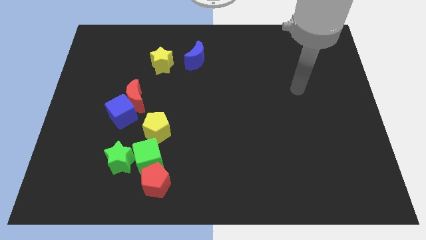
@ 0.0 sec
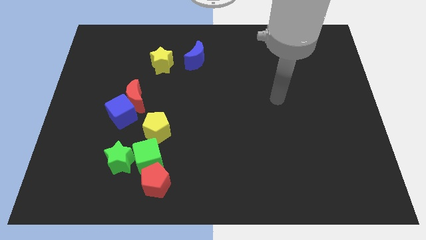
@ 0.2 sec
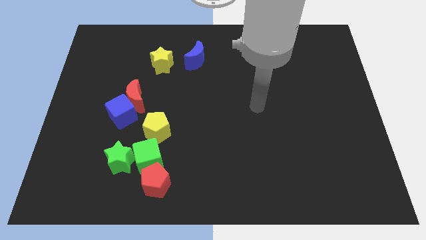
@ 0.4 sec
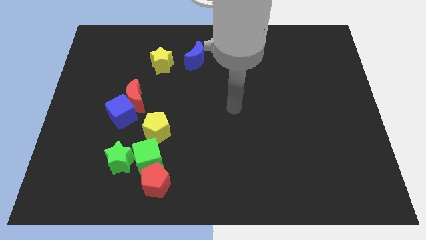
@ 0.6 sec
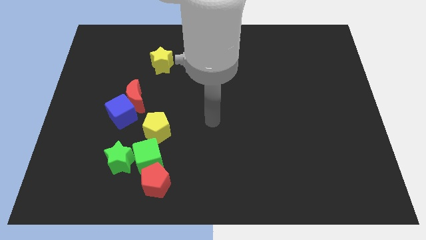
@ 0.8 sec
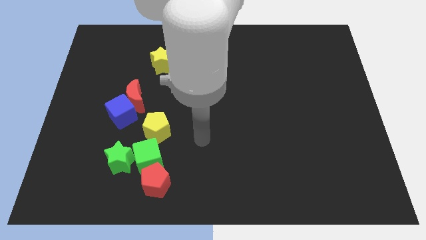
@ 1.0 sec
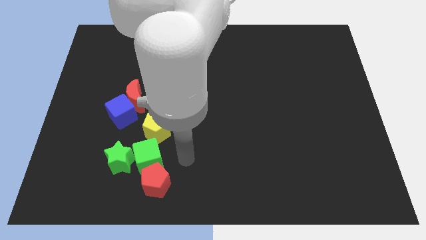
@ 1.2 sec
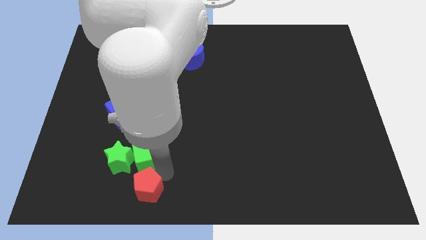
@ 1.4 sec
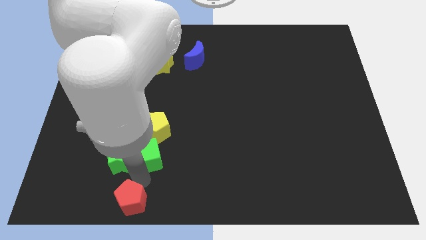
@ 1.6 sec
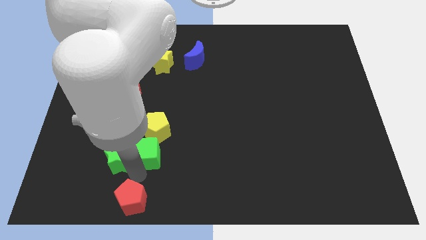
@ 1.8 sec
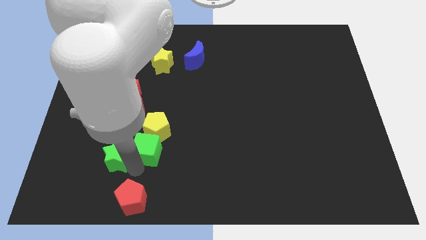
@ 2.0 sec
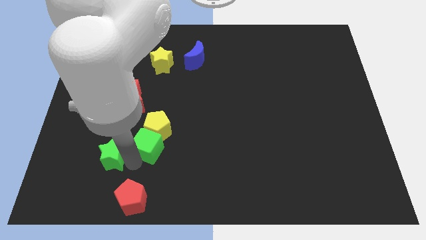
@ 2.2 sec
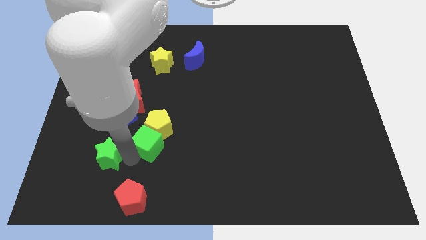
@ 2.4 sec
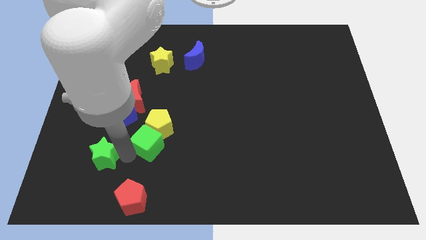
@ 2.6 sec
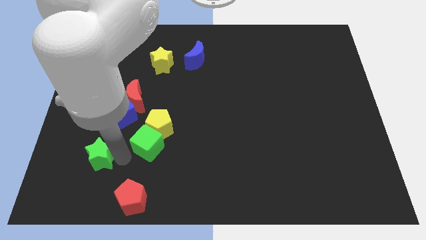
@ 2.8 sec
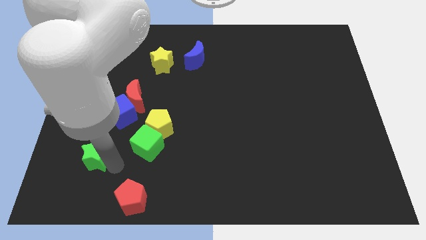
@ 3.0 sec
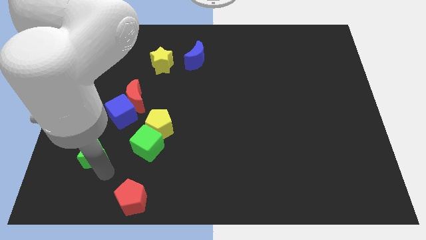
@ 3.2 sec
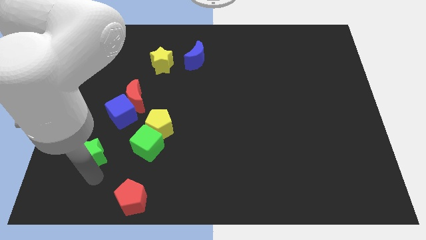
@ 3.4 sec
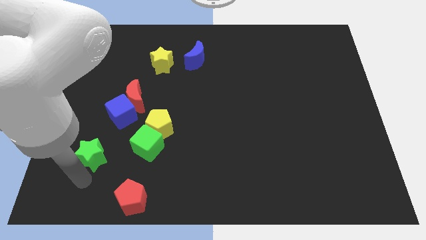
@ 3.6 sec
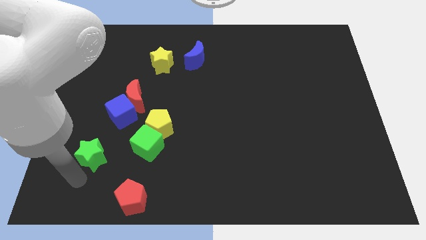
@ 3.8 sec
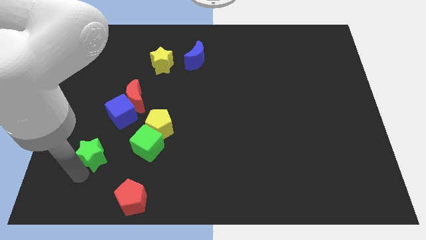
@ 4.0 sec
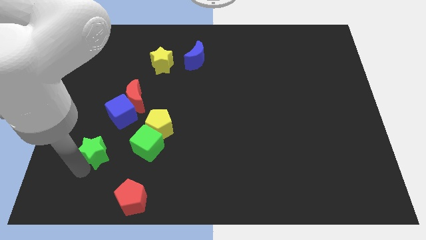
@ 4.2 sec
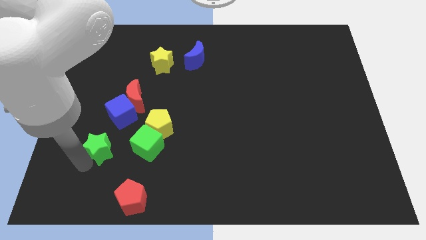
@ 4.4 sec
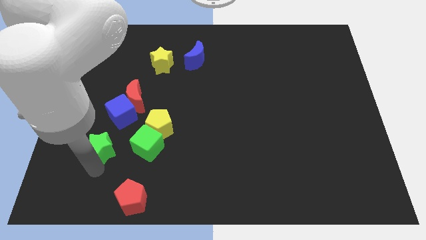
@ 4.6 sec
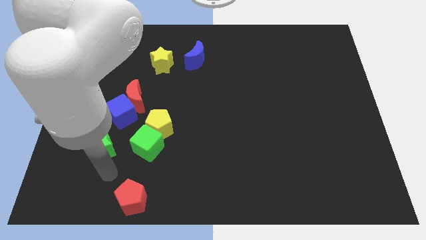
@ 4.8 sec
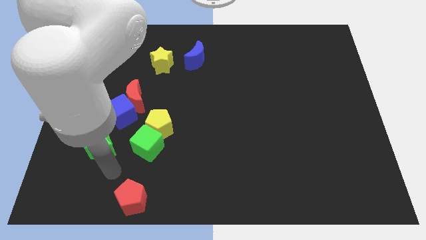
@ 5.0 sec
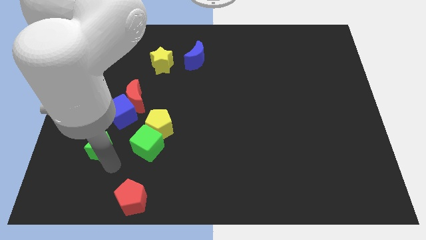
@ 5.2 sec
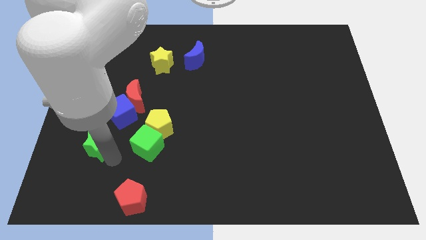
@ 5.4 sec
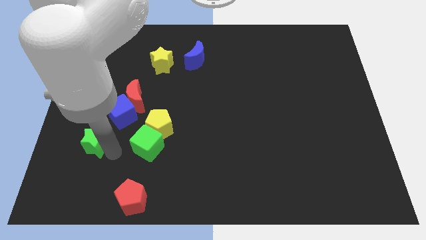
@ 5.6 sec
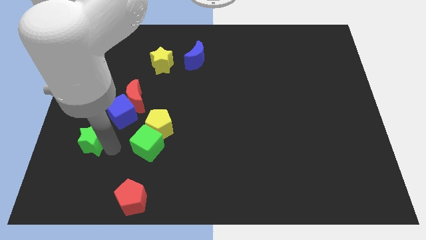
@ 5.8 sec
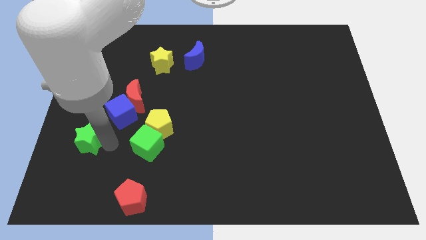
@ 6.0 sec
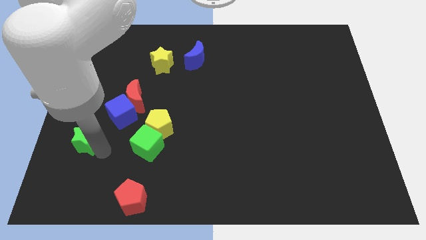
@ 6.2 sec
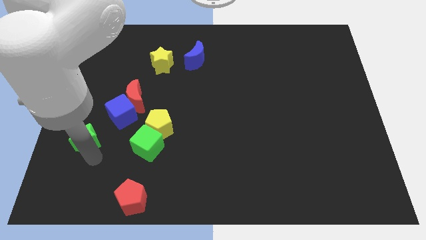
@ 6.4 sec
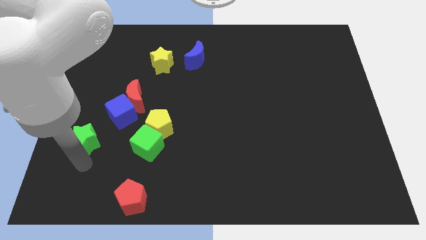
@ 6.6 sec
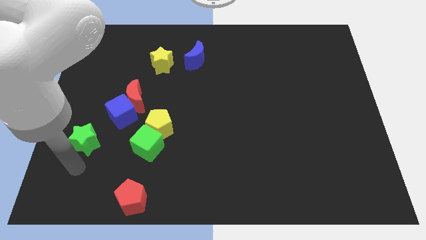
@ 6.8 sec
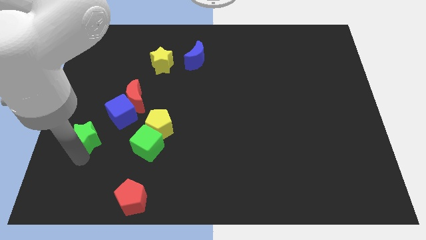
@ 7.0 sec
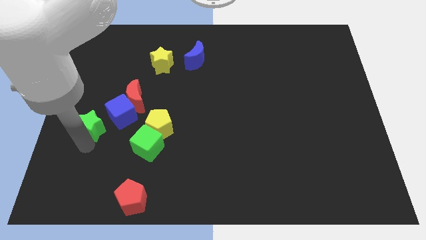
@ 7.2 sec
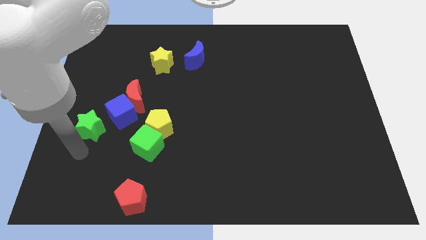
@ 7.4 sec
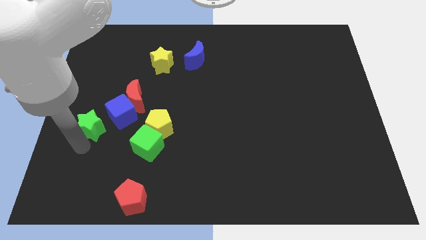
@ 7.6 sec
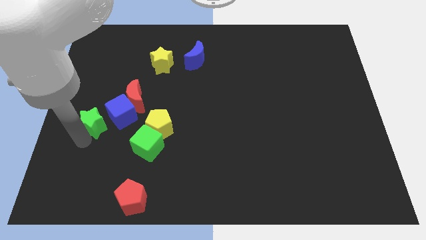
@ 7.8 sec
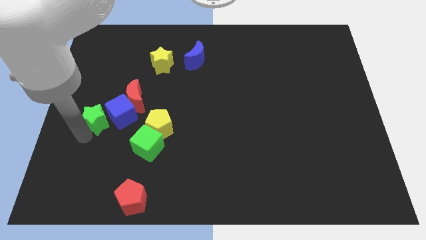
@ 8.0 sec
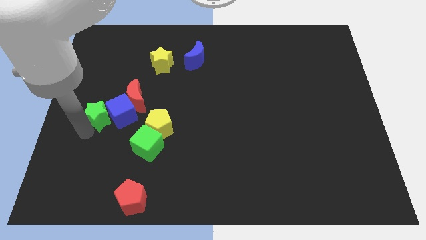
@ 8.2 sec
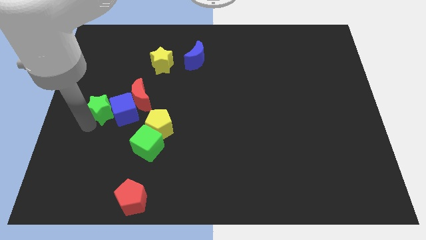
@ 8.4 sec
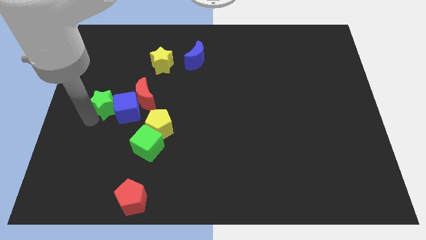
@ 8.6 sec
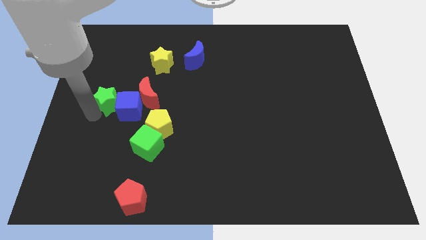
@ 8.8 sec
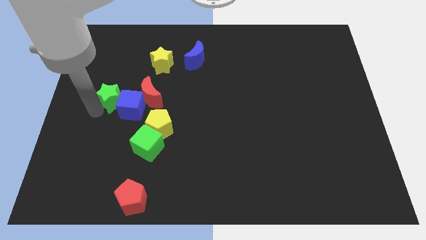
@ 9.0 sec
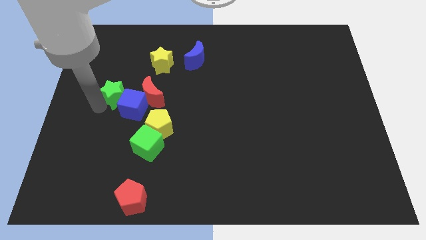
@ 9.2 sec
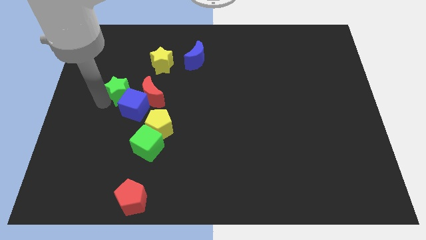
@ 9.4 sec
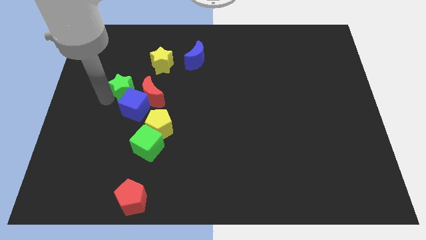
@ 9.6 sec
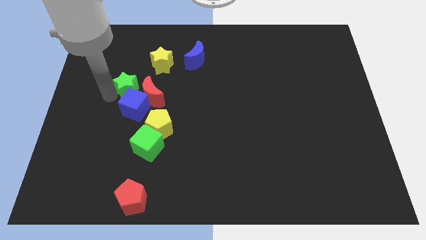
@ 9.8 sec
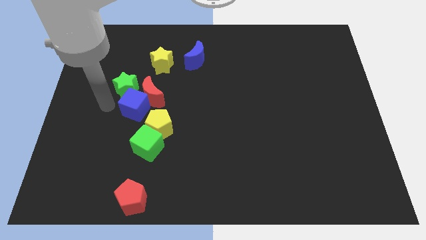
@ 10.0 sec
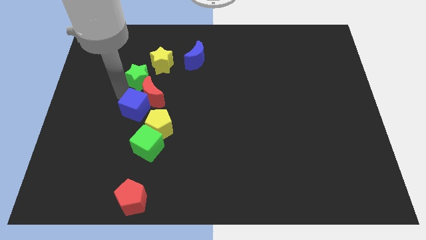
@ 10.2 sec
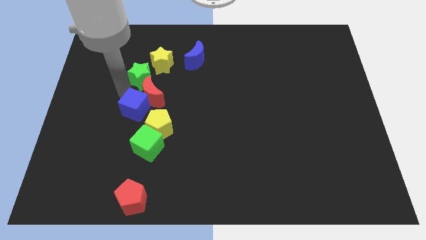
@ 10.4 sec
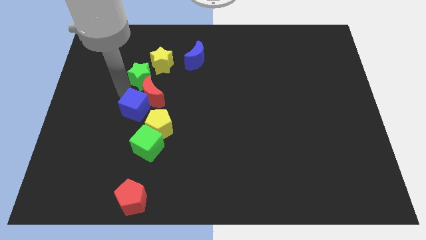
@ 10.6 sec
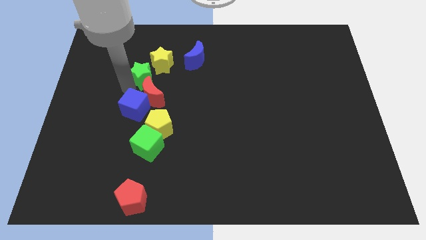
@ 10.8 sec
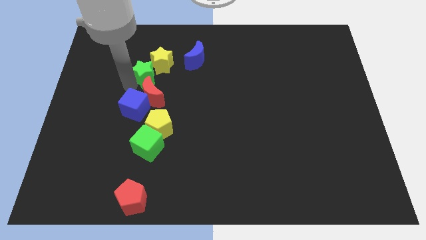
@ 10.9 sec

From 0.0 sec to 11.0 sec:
put the green star towards the yellow star

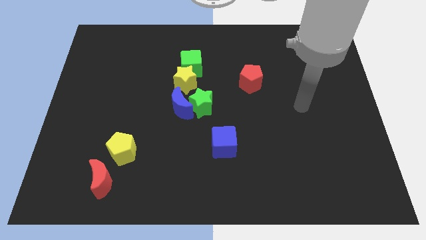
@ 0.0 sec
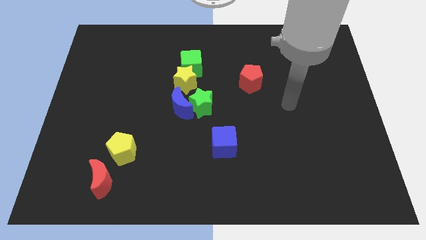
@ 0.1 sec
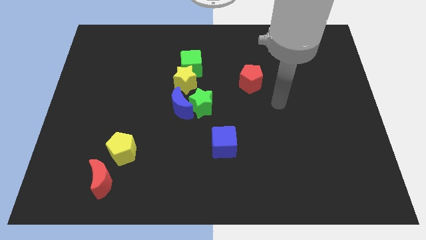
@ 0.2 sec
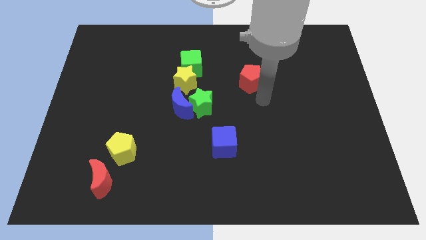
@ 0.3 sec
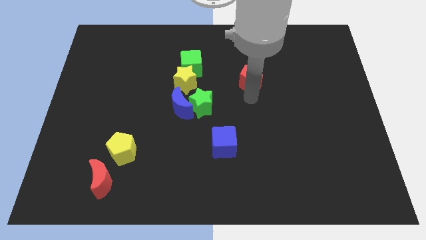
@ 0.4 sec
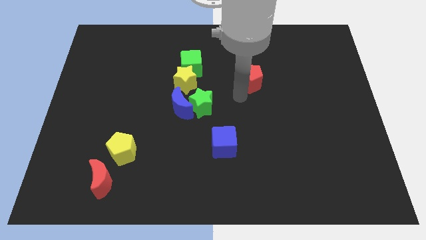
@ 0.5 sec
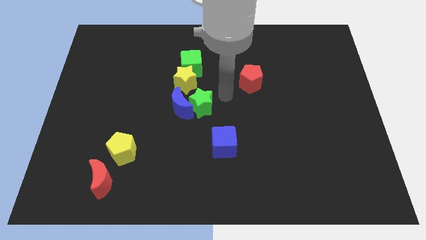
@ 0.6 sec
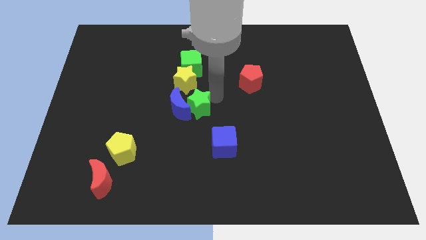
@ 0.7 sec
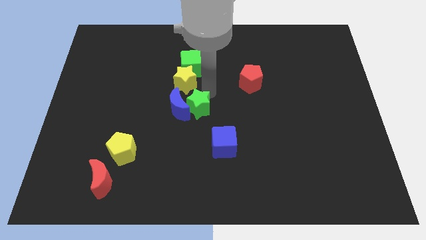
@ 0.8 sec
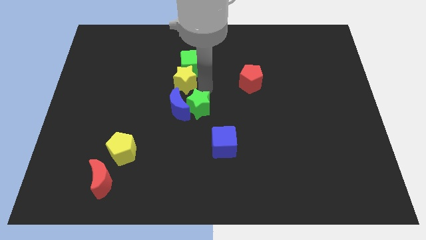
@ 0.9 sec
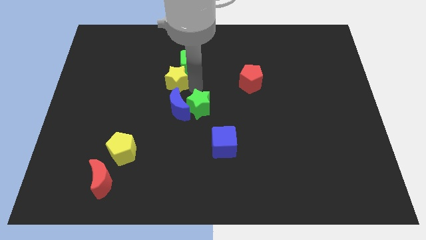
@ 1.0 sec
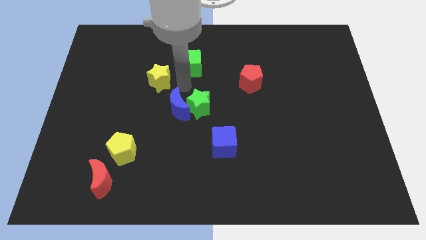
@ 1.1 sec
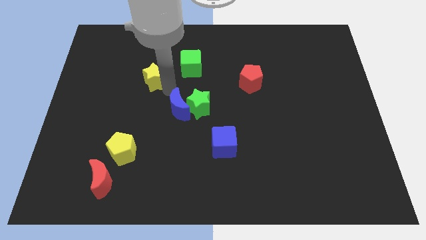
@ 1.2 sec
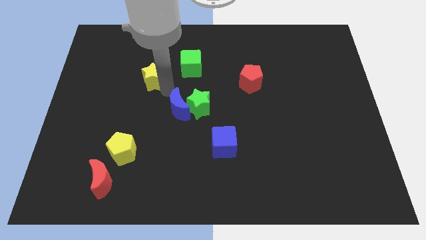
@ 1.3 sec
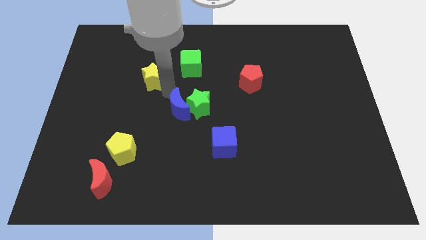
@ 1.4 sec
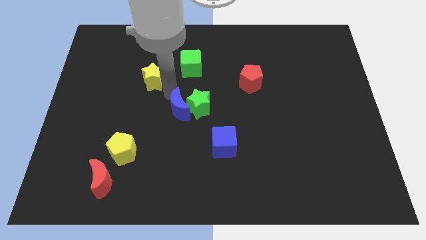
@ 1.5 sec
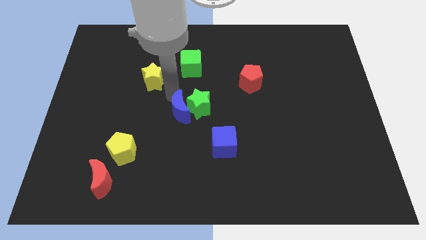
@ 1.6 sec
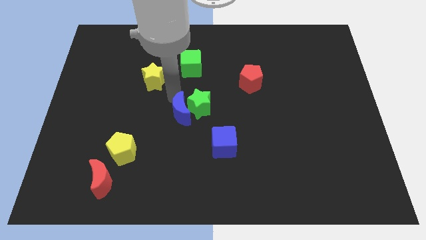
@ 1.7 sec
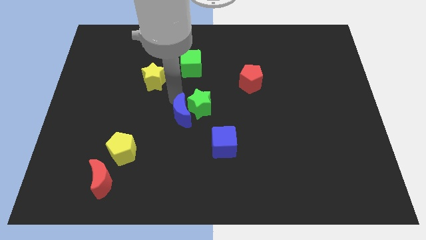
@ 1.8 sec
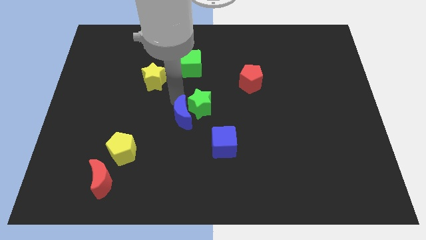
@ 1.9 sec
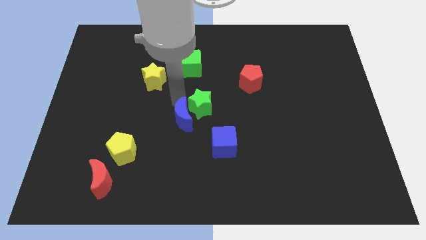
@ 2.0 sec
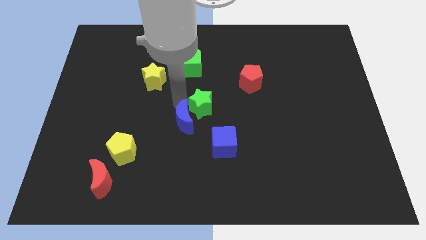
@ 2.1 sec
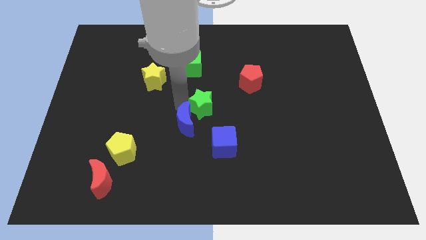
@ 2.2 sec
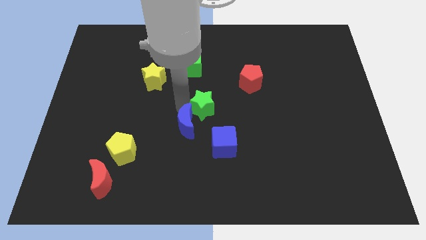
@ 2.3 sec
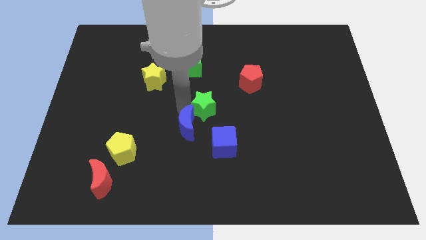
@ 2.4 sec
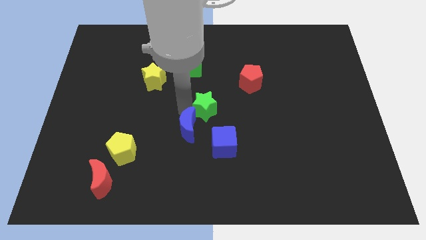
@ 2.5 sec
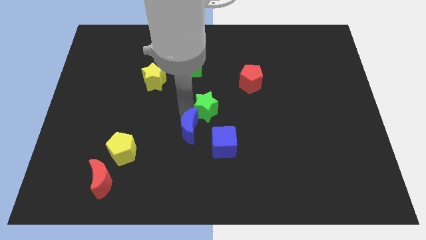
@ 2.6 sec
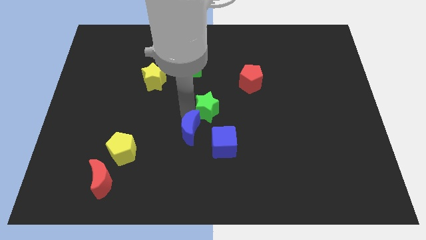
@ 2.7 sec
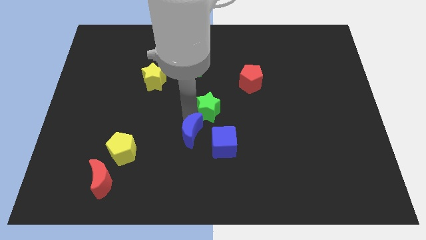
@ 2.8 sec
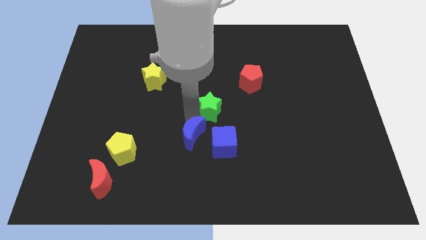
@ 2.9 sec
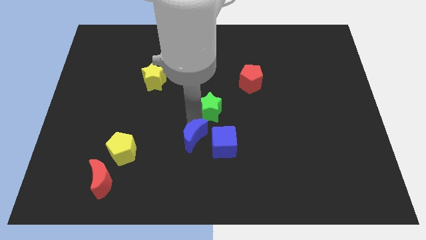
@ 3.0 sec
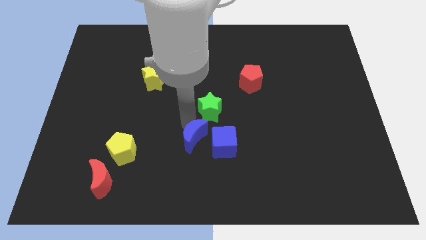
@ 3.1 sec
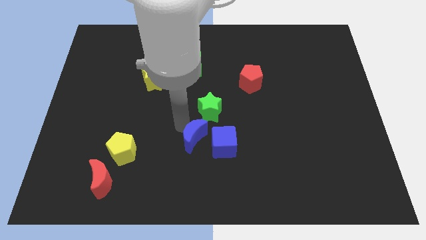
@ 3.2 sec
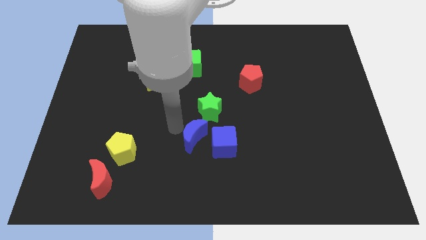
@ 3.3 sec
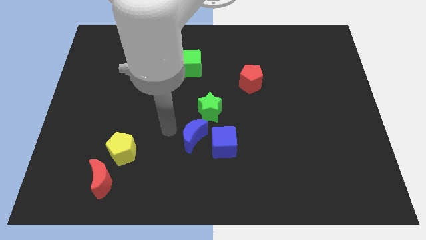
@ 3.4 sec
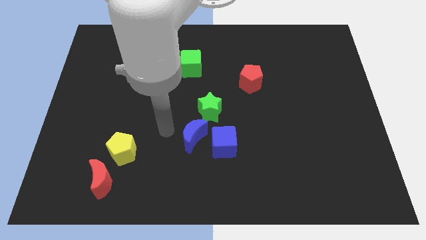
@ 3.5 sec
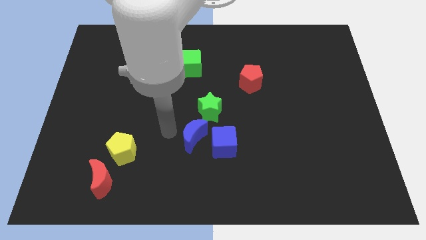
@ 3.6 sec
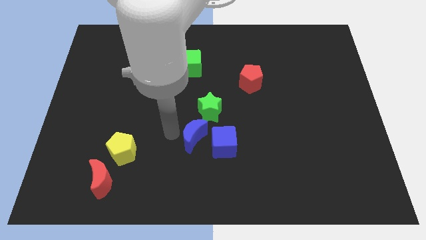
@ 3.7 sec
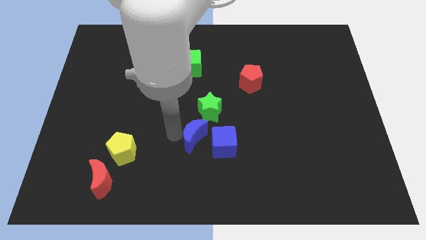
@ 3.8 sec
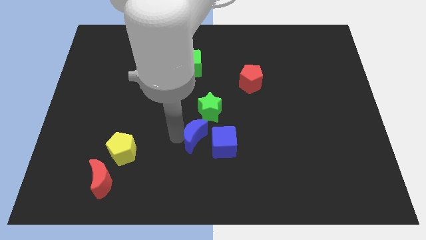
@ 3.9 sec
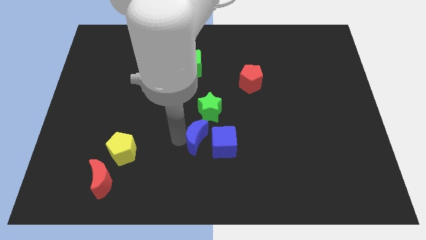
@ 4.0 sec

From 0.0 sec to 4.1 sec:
slide the blue moon next to the blue cube
